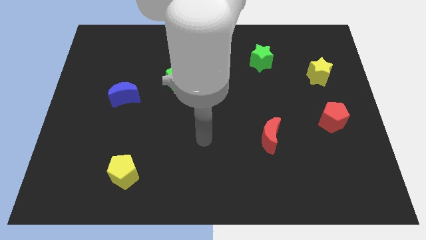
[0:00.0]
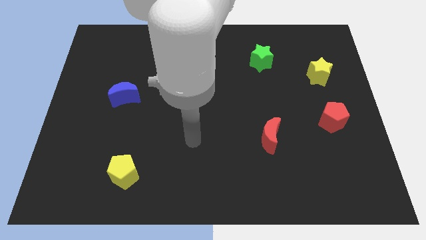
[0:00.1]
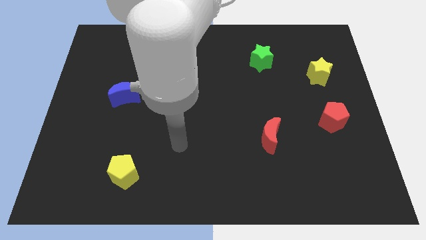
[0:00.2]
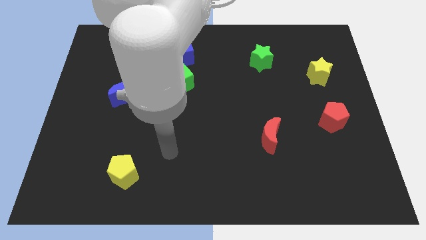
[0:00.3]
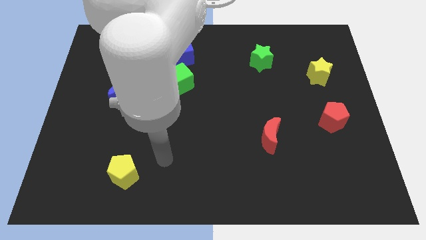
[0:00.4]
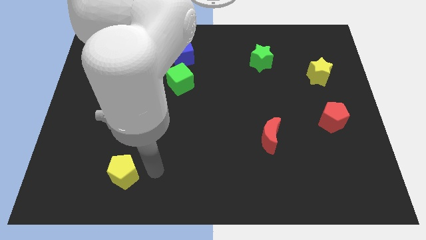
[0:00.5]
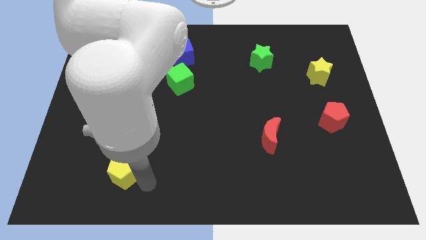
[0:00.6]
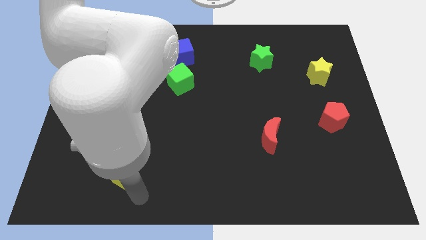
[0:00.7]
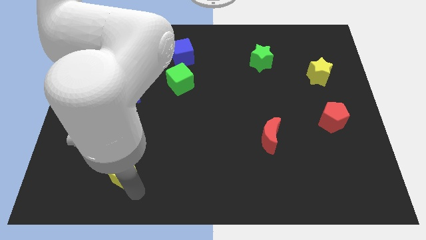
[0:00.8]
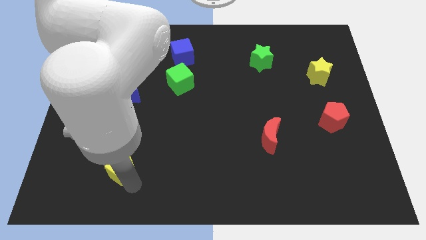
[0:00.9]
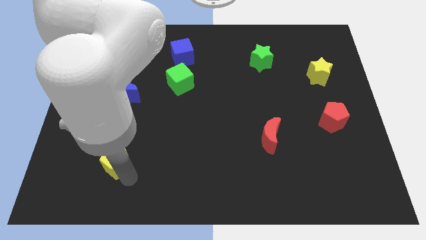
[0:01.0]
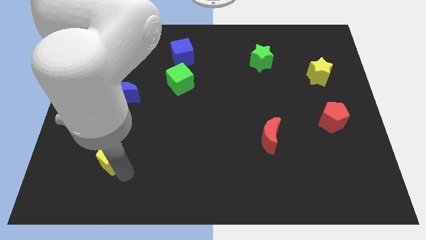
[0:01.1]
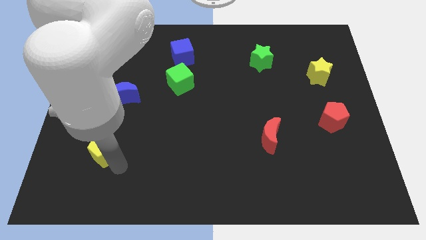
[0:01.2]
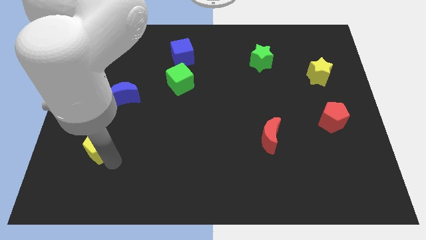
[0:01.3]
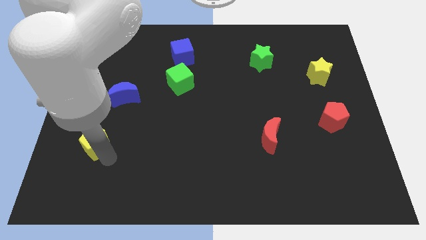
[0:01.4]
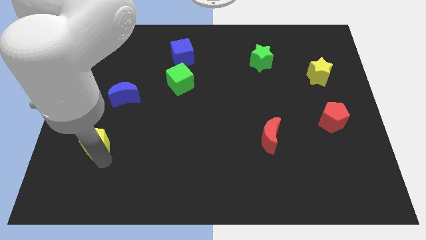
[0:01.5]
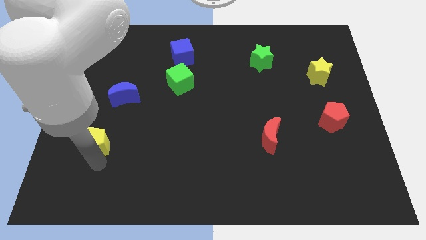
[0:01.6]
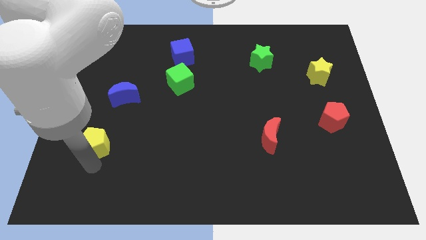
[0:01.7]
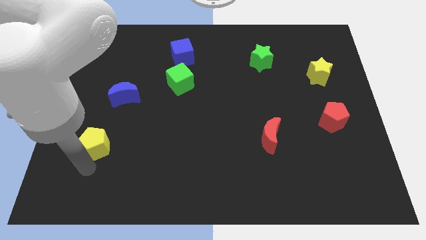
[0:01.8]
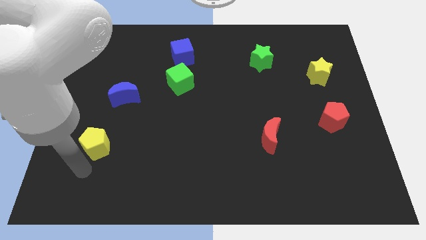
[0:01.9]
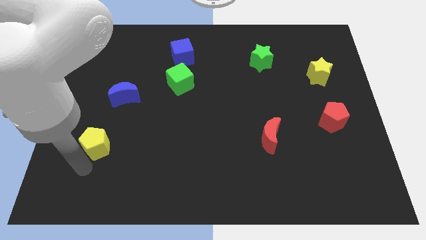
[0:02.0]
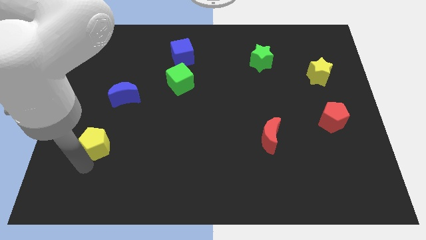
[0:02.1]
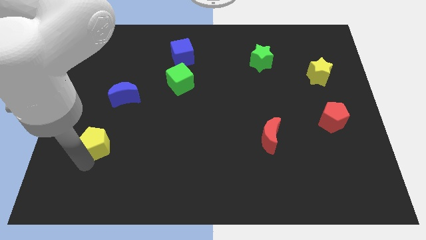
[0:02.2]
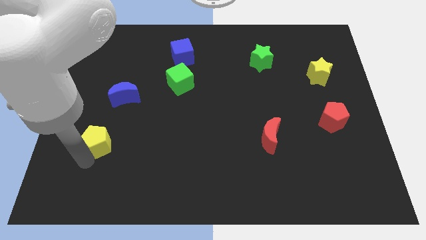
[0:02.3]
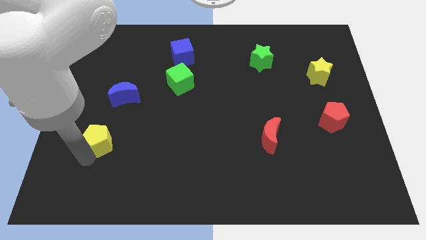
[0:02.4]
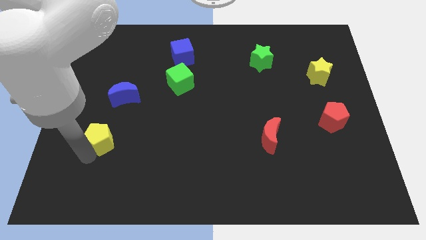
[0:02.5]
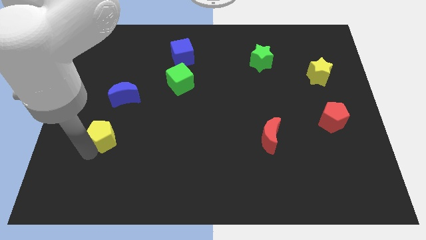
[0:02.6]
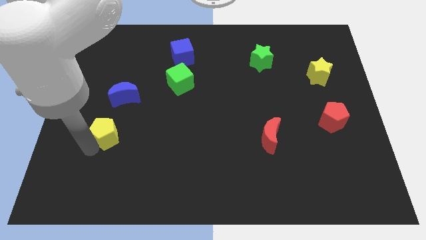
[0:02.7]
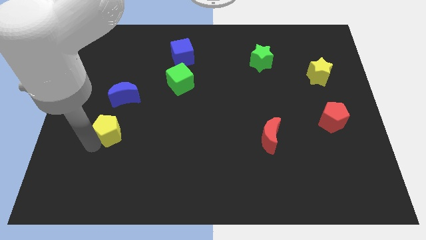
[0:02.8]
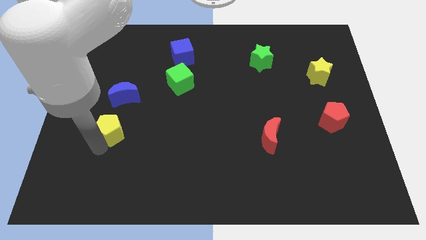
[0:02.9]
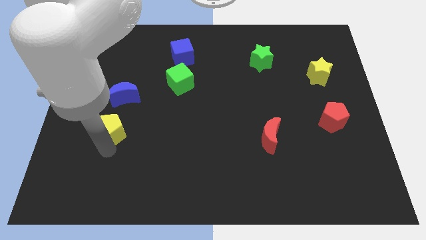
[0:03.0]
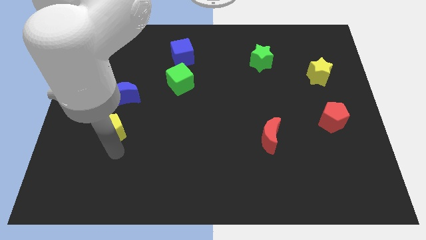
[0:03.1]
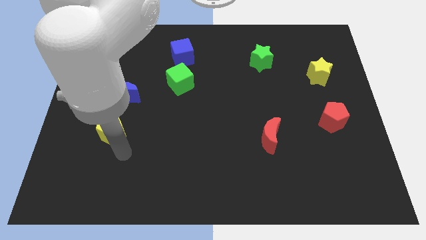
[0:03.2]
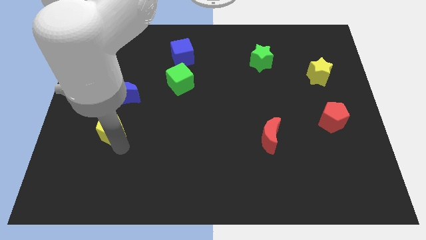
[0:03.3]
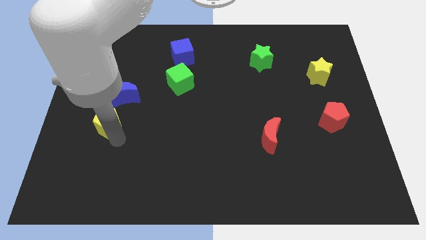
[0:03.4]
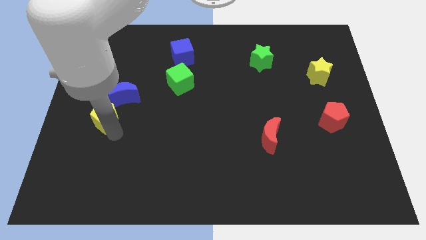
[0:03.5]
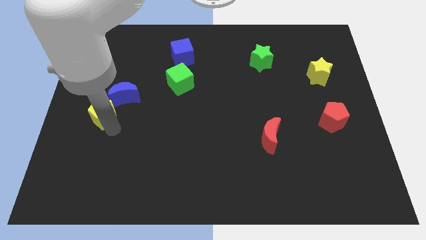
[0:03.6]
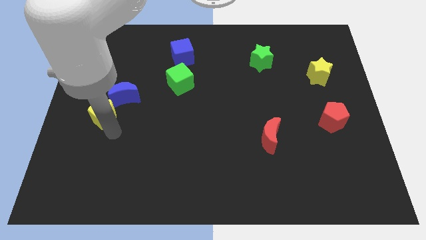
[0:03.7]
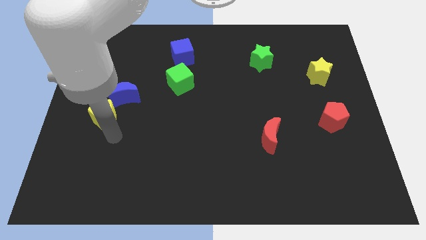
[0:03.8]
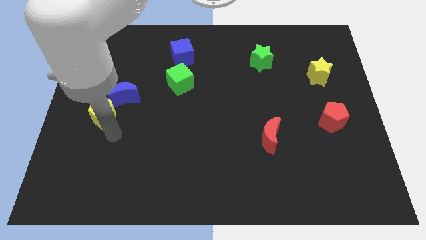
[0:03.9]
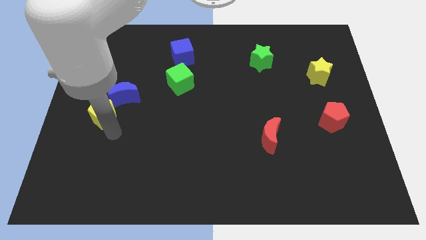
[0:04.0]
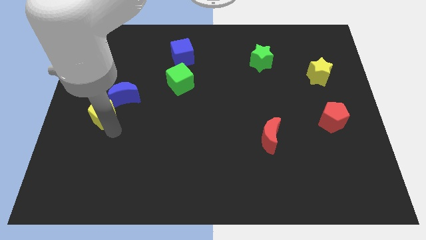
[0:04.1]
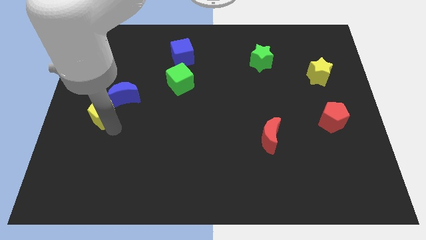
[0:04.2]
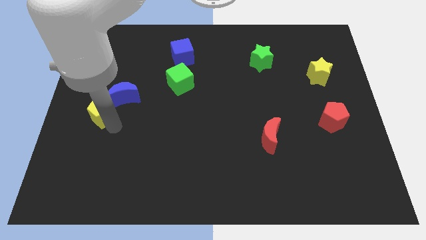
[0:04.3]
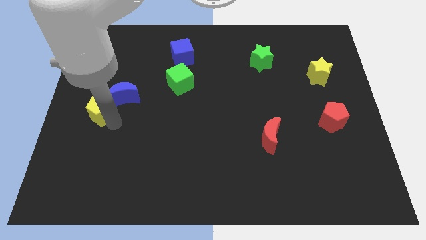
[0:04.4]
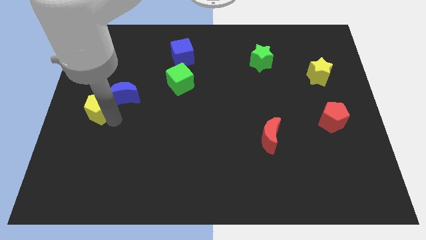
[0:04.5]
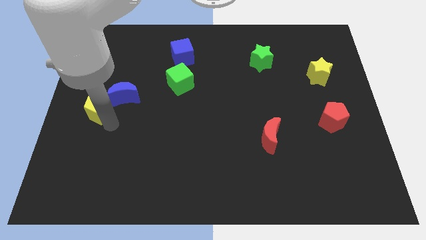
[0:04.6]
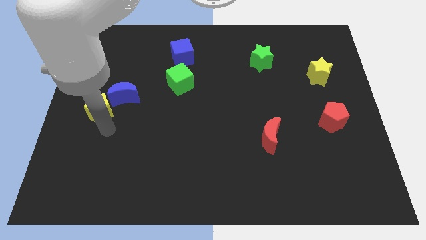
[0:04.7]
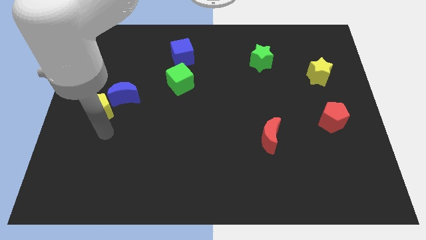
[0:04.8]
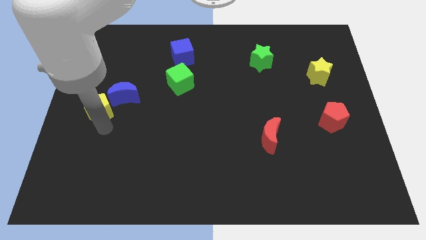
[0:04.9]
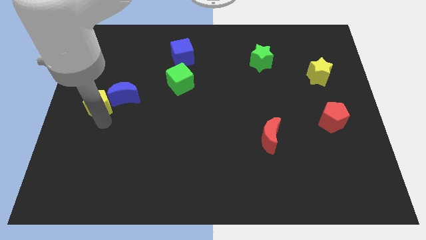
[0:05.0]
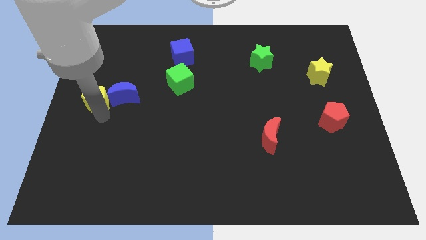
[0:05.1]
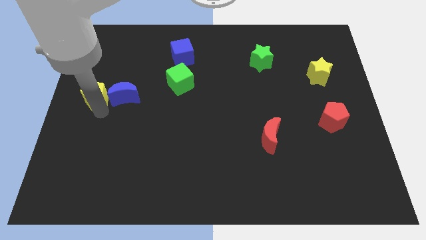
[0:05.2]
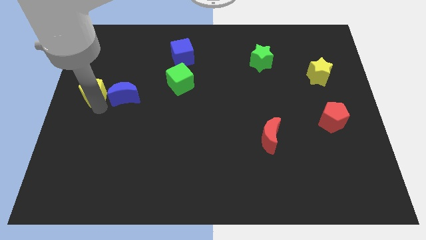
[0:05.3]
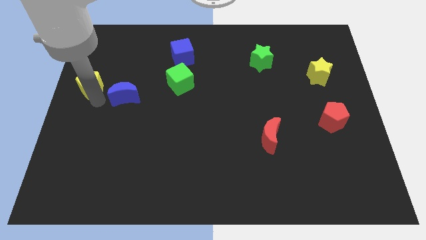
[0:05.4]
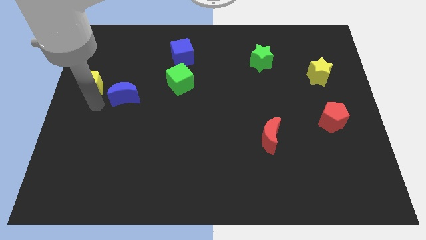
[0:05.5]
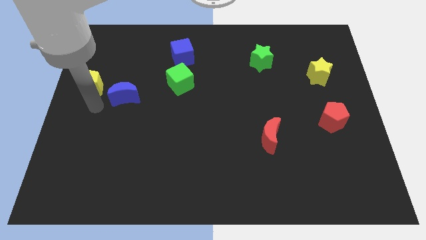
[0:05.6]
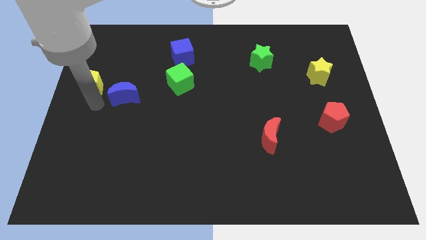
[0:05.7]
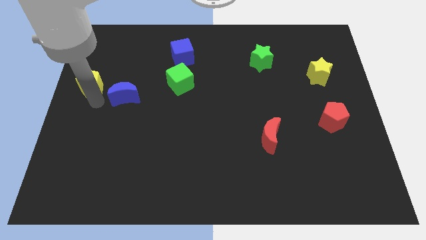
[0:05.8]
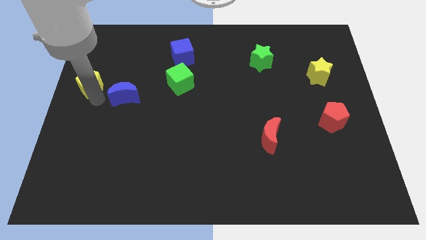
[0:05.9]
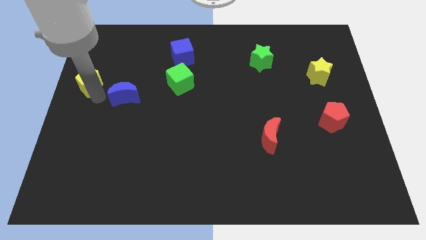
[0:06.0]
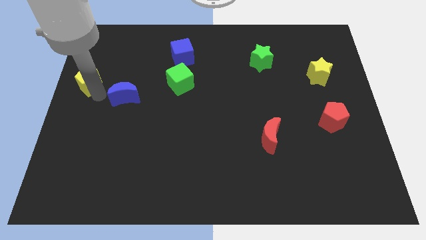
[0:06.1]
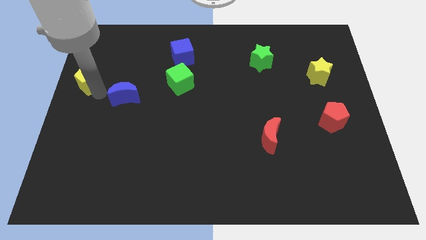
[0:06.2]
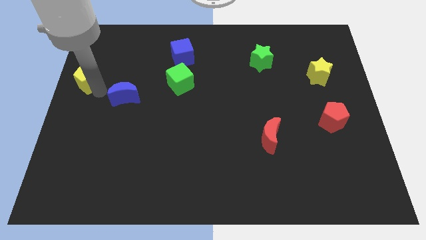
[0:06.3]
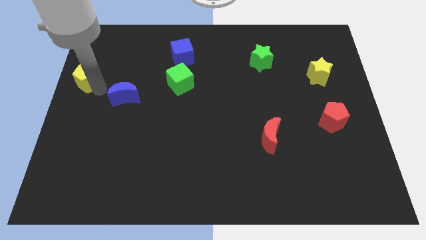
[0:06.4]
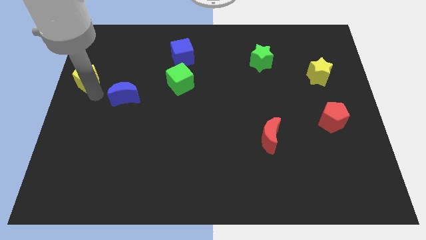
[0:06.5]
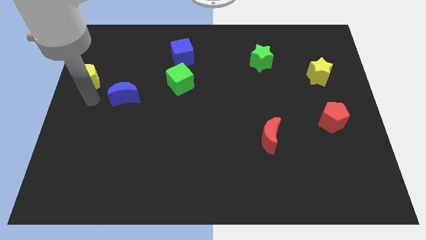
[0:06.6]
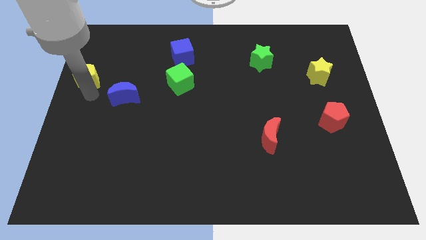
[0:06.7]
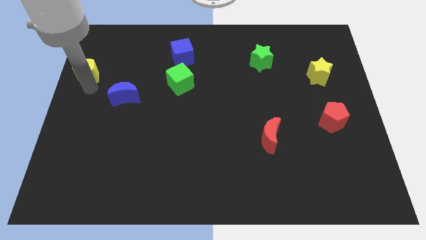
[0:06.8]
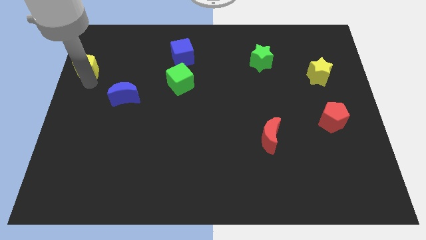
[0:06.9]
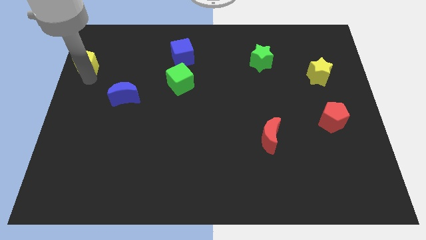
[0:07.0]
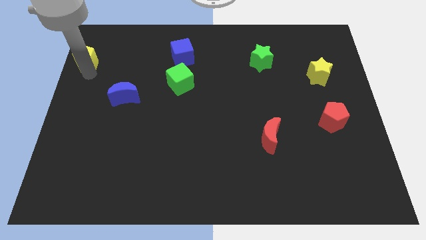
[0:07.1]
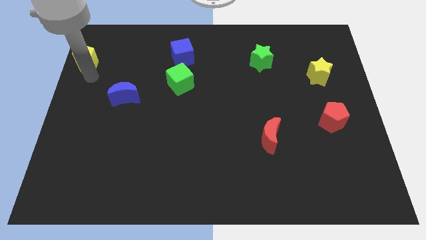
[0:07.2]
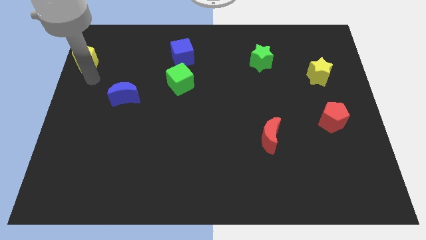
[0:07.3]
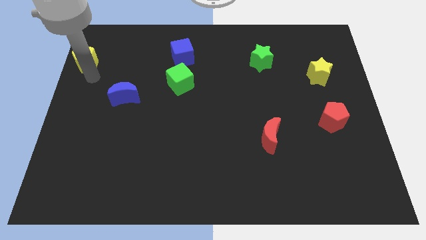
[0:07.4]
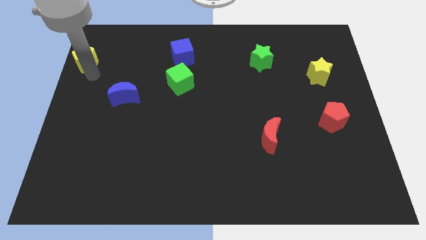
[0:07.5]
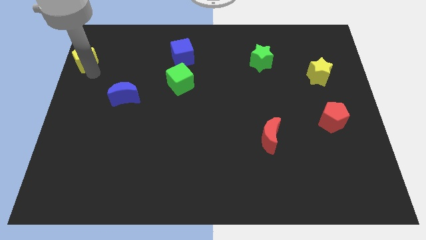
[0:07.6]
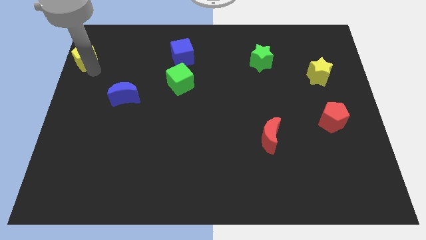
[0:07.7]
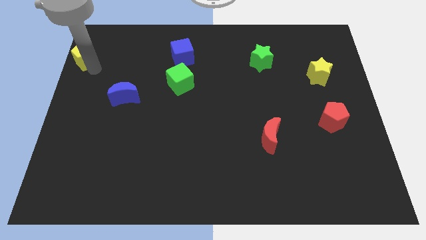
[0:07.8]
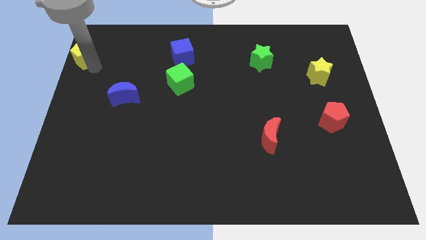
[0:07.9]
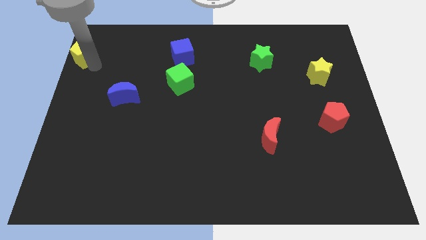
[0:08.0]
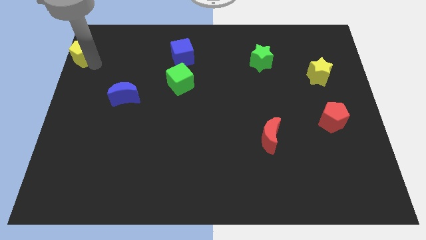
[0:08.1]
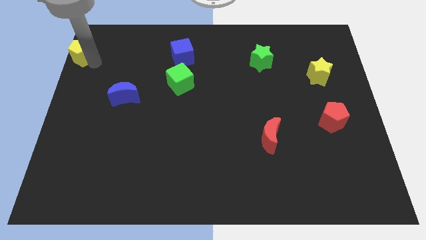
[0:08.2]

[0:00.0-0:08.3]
put the yellow pentagon to the top left of the board
